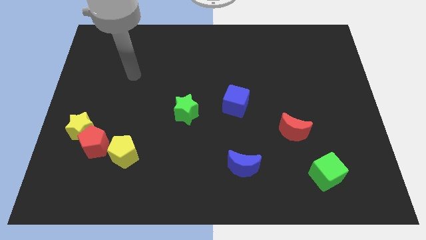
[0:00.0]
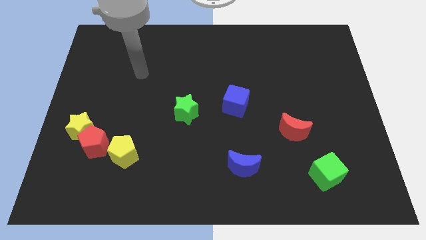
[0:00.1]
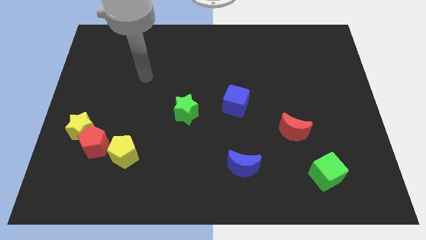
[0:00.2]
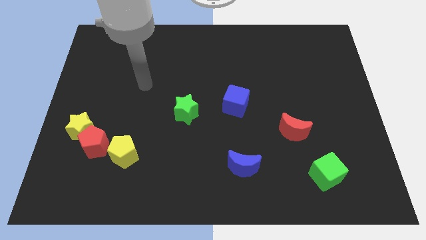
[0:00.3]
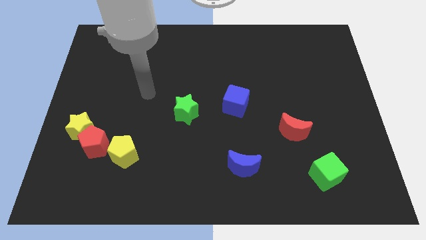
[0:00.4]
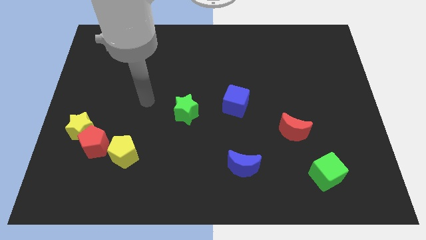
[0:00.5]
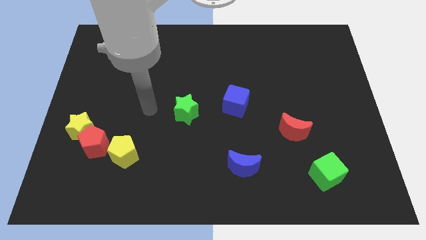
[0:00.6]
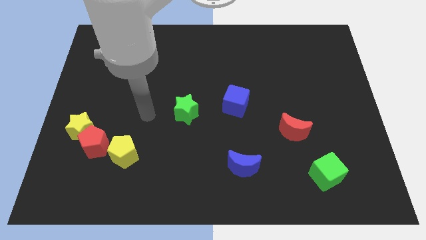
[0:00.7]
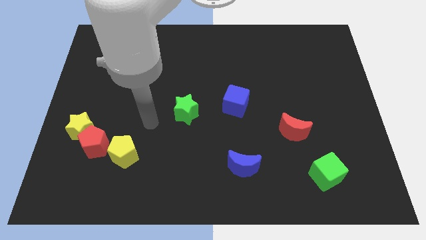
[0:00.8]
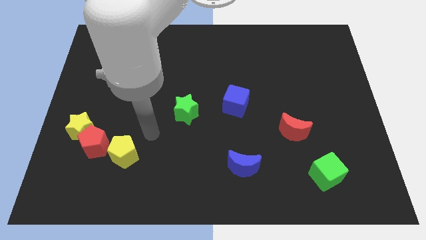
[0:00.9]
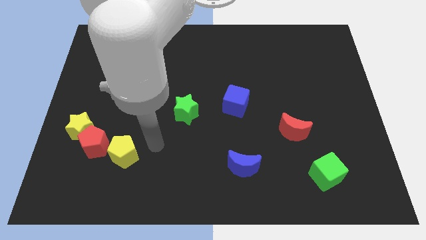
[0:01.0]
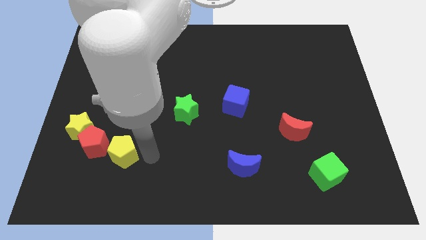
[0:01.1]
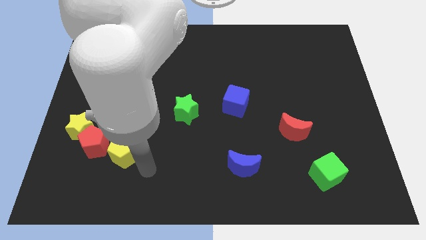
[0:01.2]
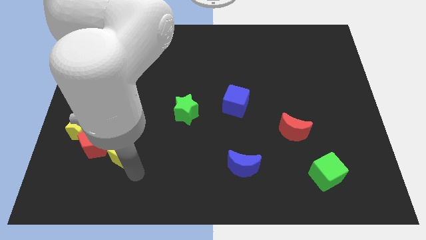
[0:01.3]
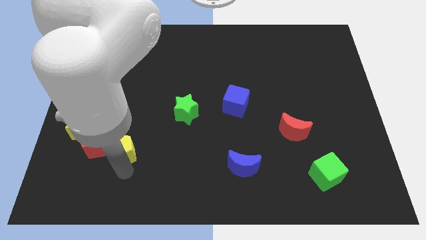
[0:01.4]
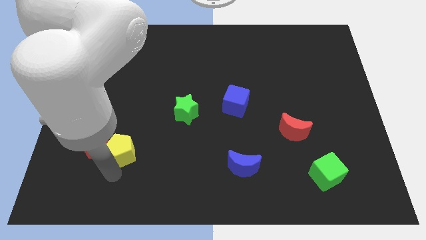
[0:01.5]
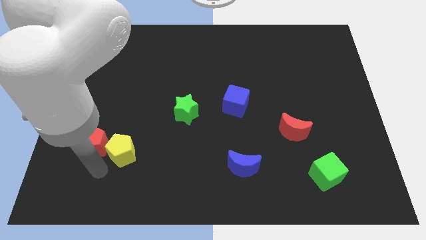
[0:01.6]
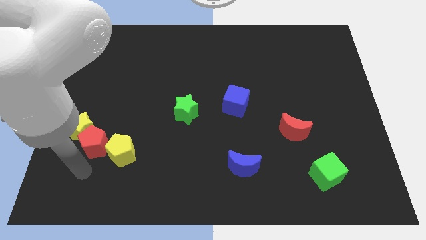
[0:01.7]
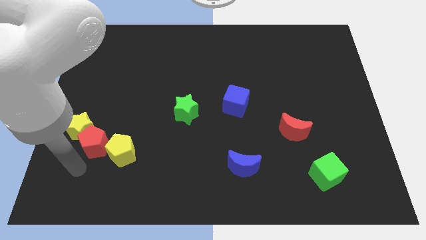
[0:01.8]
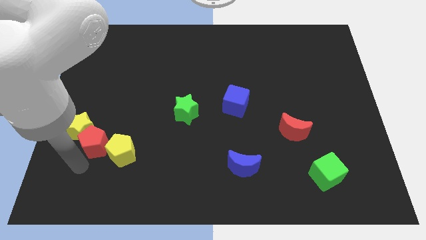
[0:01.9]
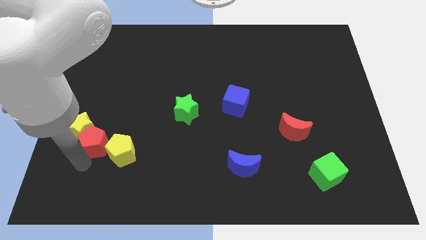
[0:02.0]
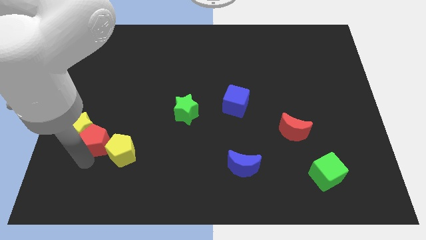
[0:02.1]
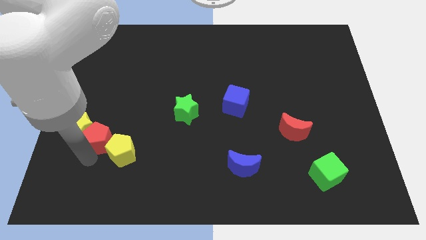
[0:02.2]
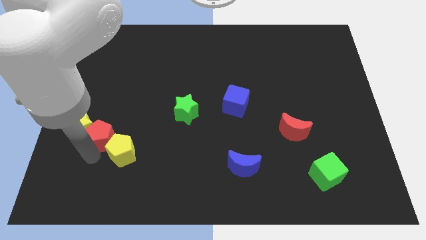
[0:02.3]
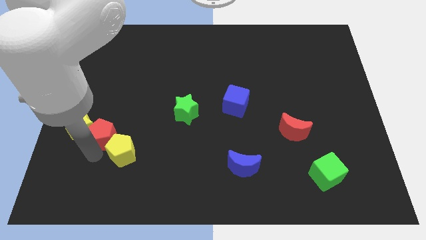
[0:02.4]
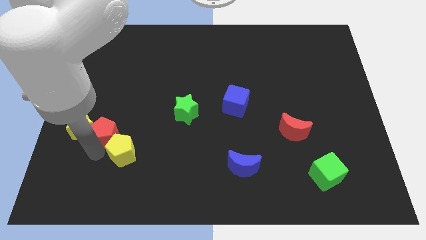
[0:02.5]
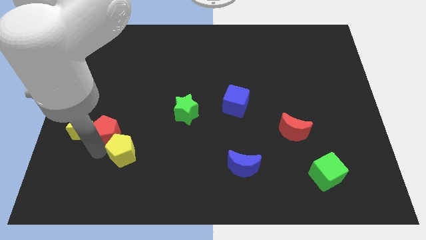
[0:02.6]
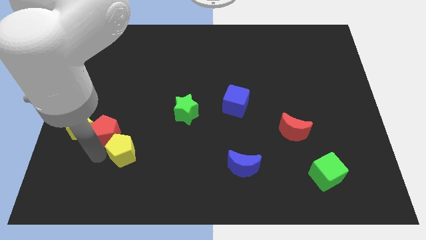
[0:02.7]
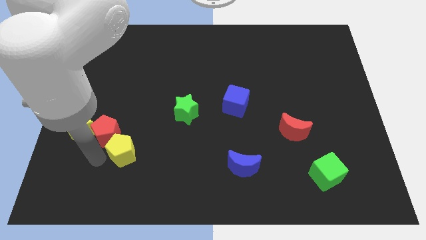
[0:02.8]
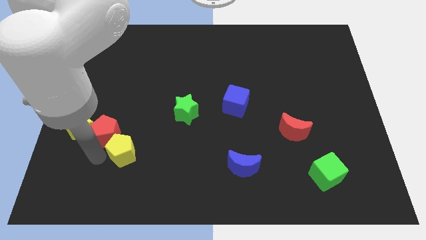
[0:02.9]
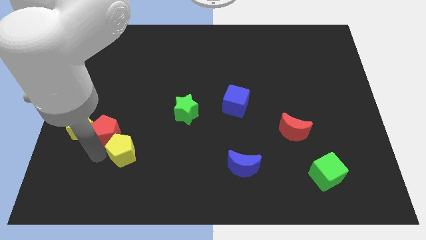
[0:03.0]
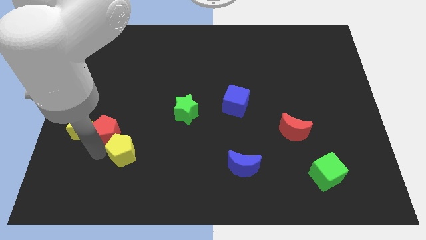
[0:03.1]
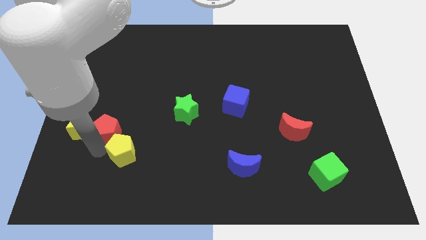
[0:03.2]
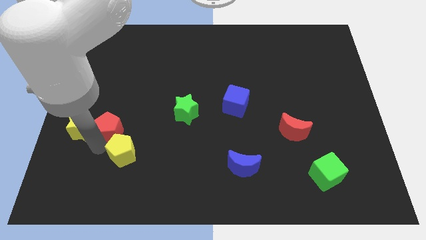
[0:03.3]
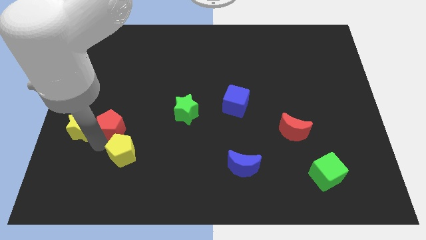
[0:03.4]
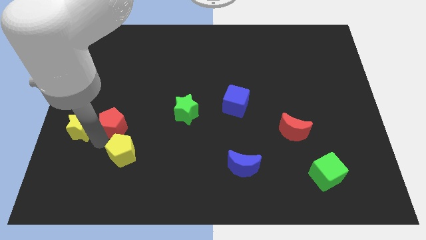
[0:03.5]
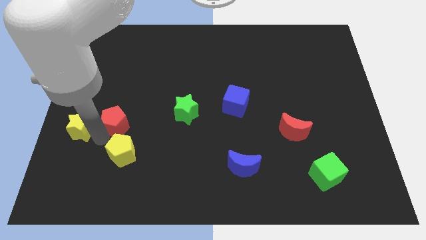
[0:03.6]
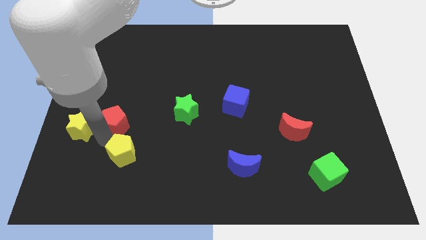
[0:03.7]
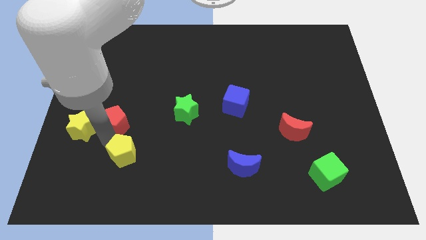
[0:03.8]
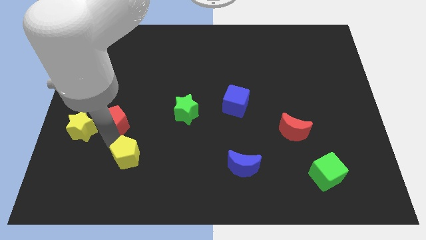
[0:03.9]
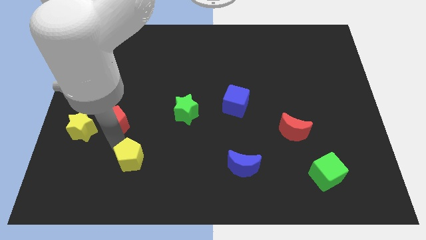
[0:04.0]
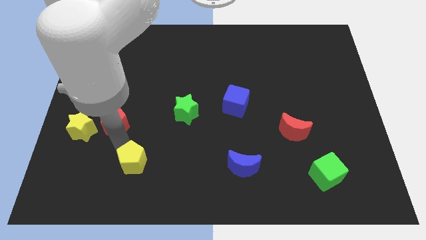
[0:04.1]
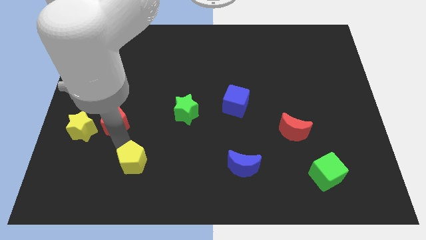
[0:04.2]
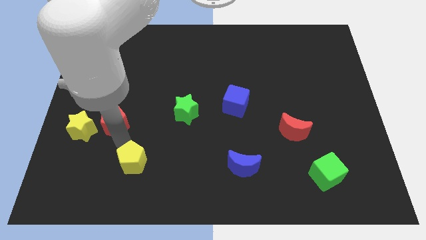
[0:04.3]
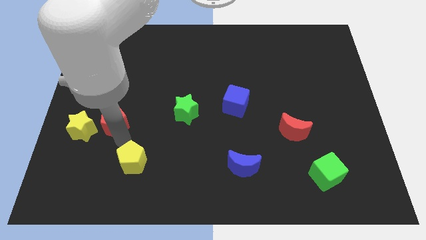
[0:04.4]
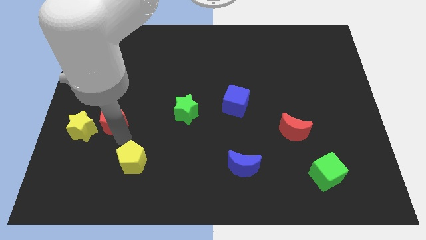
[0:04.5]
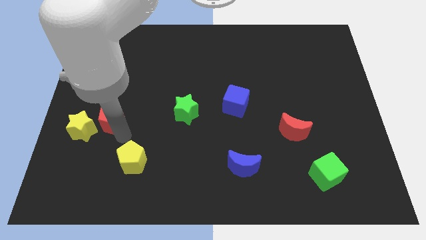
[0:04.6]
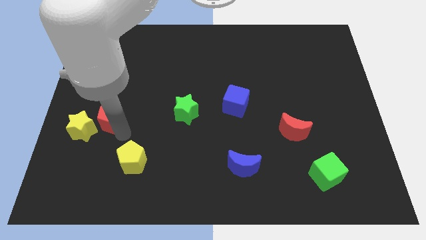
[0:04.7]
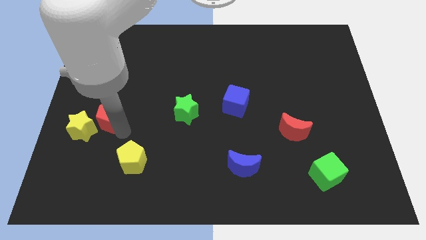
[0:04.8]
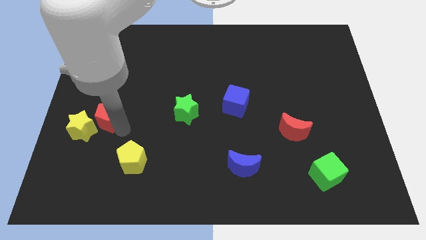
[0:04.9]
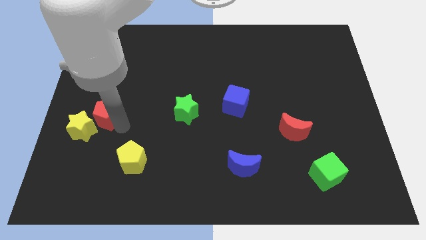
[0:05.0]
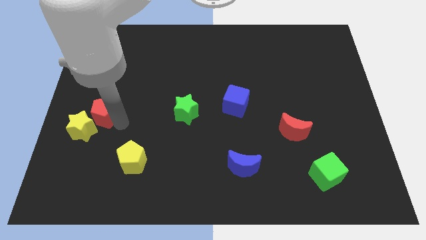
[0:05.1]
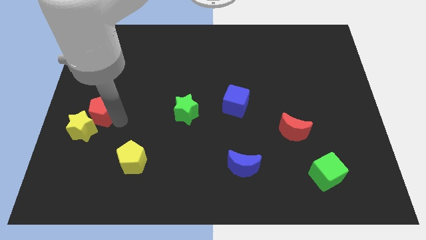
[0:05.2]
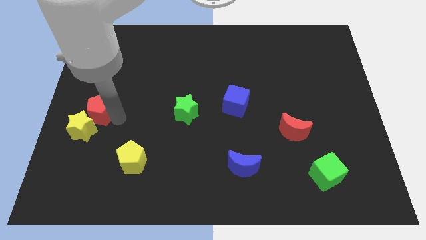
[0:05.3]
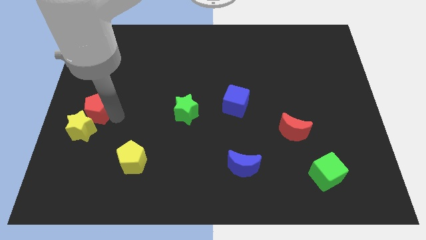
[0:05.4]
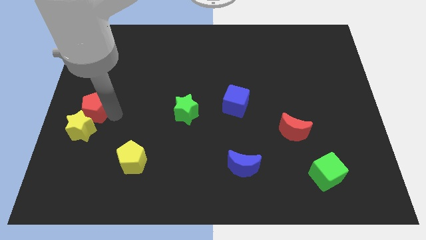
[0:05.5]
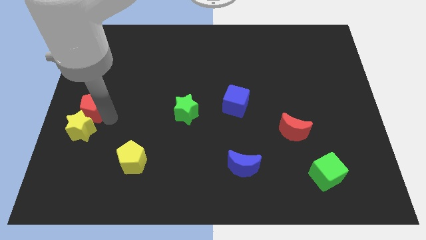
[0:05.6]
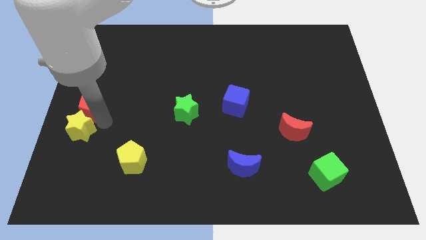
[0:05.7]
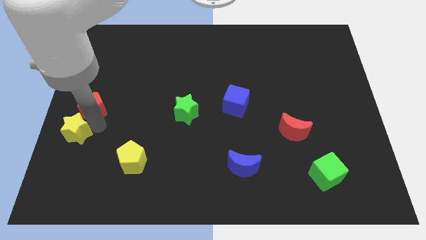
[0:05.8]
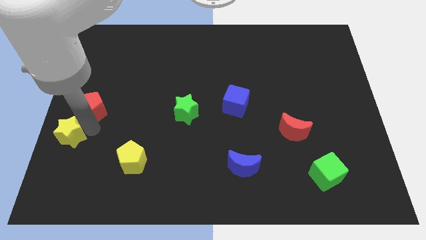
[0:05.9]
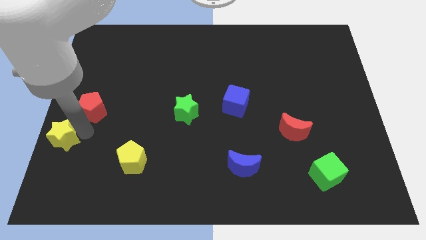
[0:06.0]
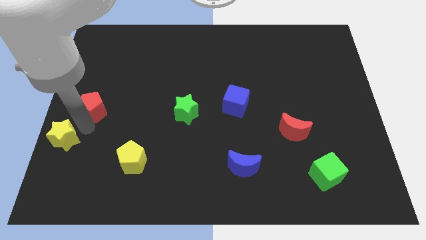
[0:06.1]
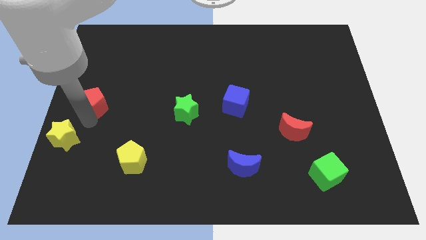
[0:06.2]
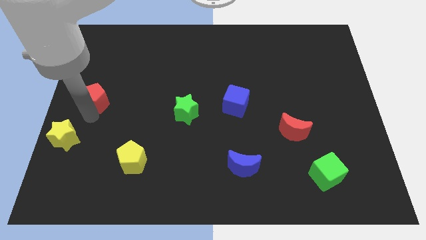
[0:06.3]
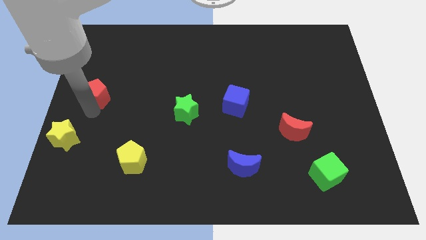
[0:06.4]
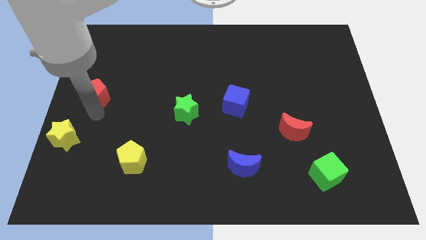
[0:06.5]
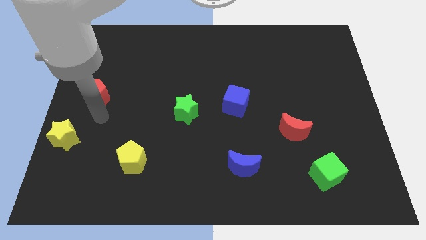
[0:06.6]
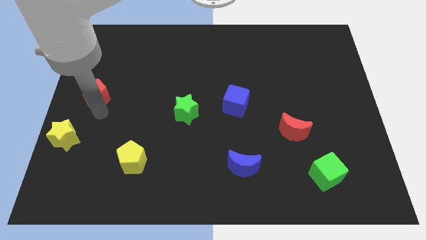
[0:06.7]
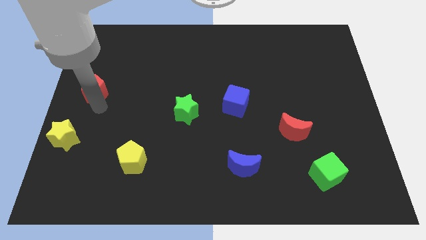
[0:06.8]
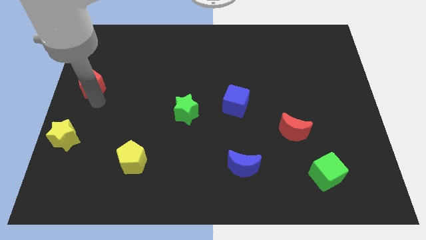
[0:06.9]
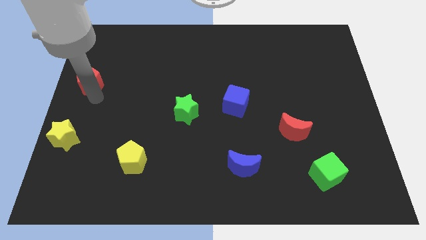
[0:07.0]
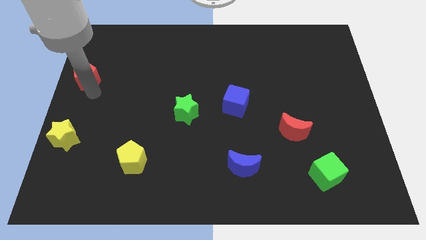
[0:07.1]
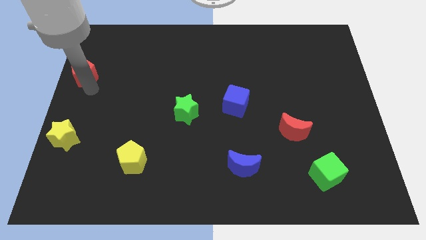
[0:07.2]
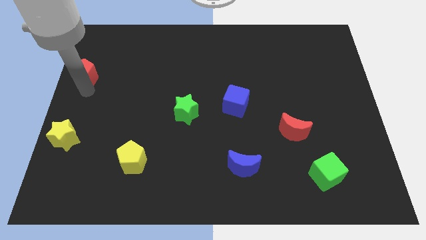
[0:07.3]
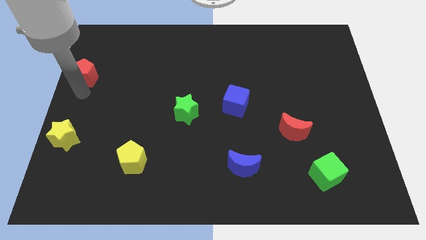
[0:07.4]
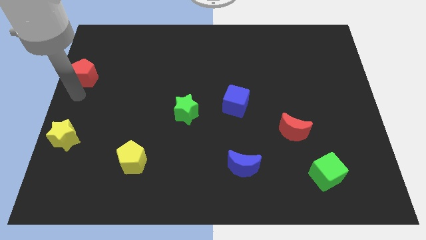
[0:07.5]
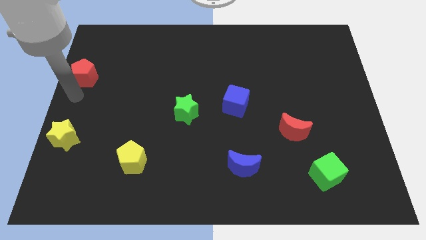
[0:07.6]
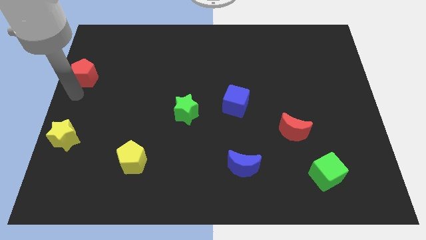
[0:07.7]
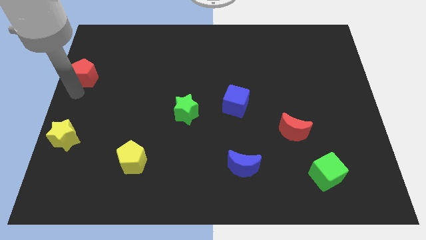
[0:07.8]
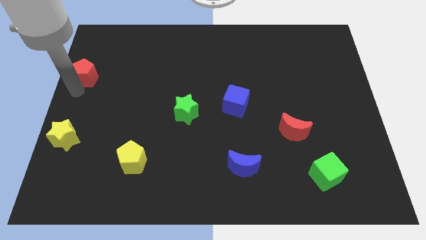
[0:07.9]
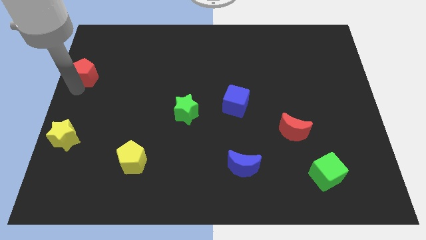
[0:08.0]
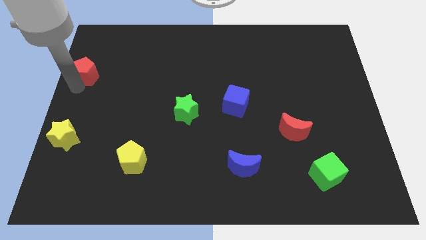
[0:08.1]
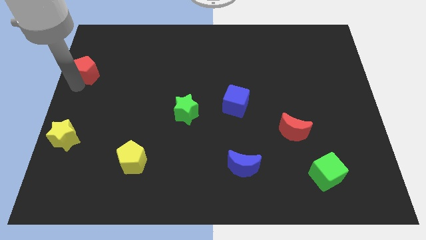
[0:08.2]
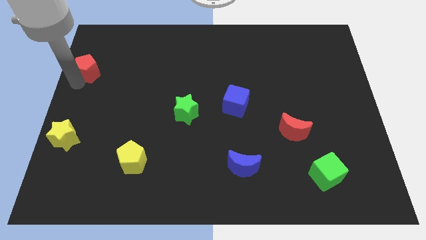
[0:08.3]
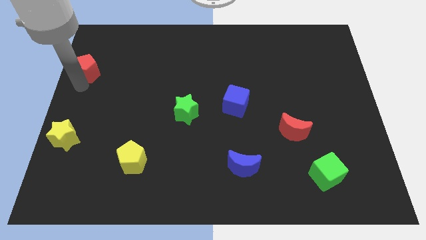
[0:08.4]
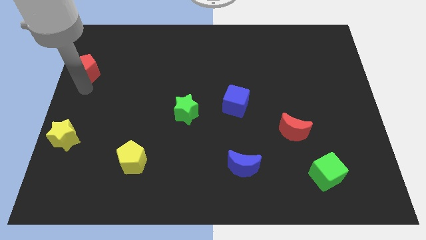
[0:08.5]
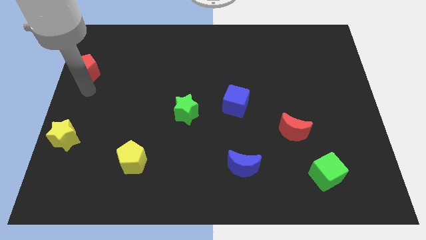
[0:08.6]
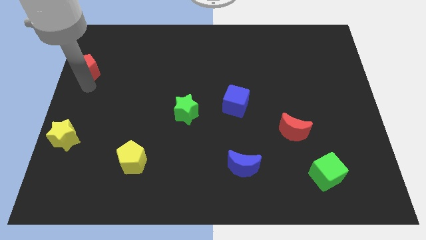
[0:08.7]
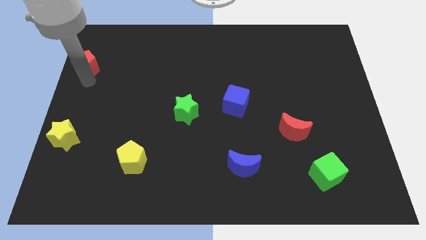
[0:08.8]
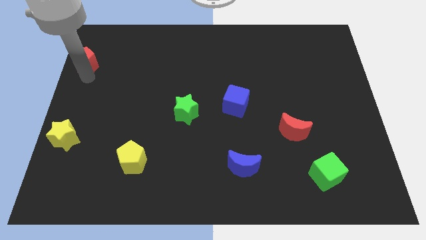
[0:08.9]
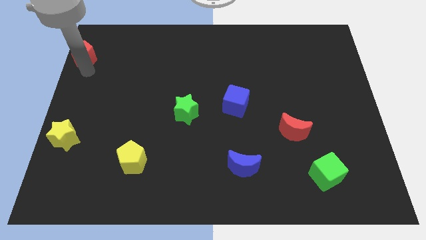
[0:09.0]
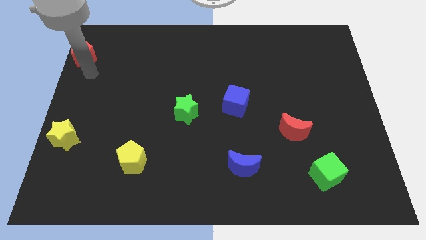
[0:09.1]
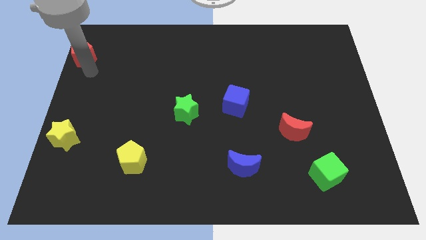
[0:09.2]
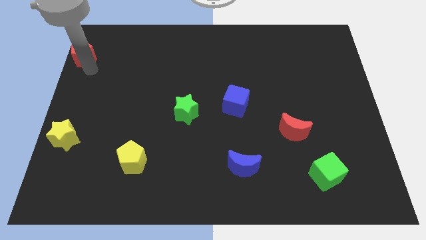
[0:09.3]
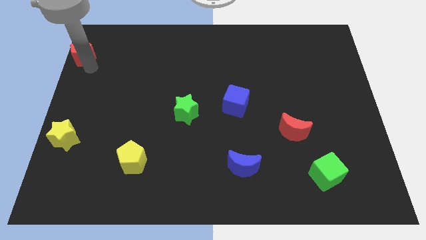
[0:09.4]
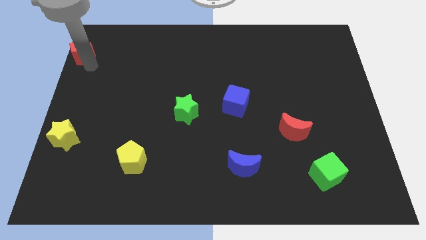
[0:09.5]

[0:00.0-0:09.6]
put the red pentagon to the top left
